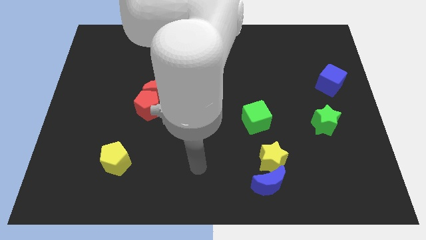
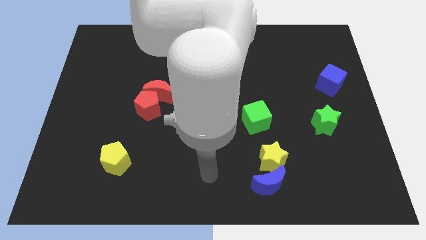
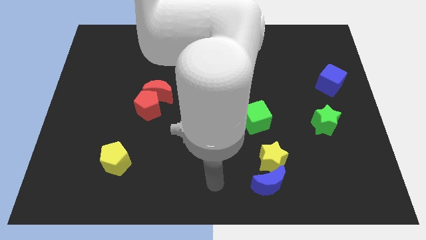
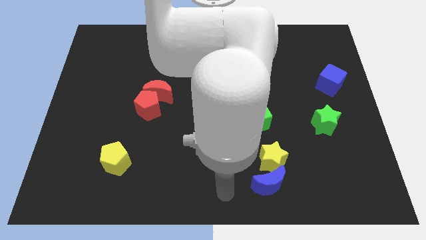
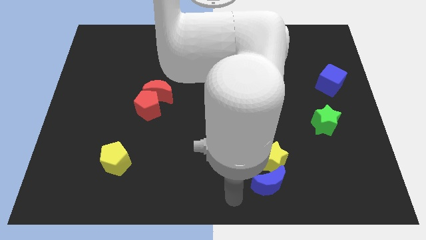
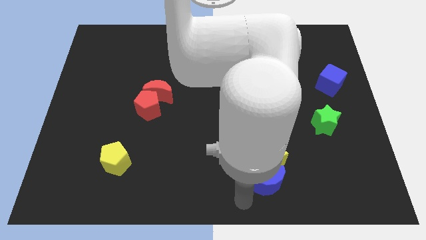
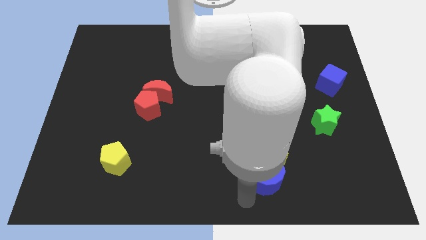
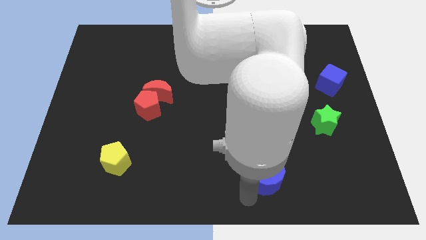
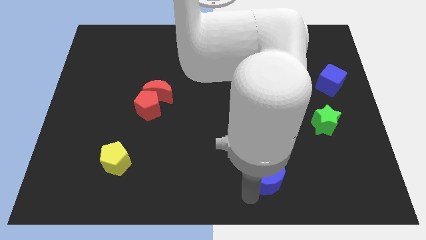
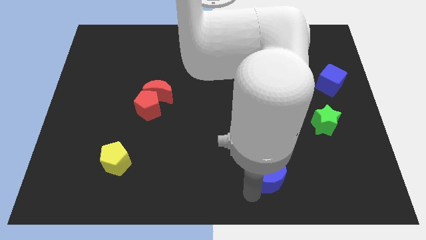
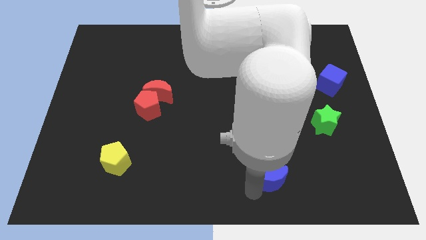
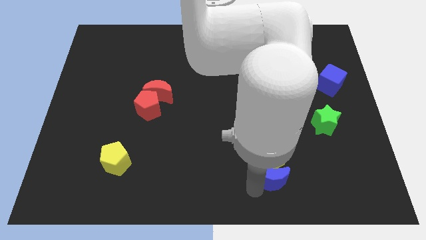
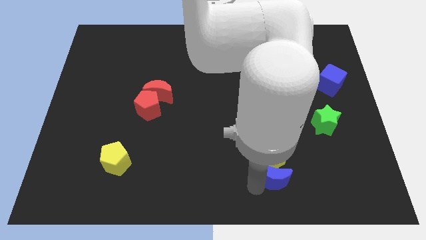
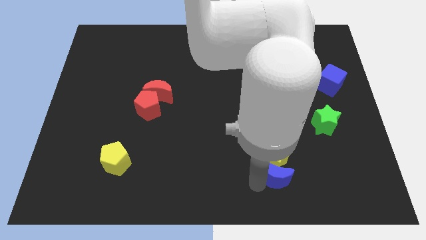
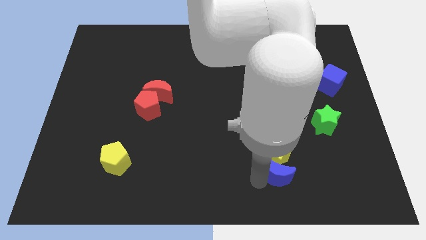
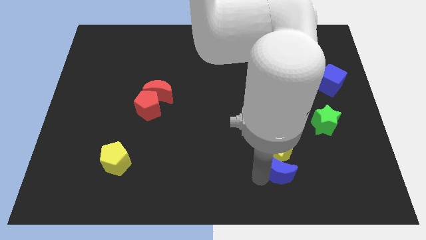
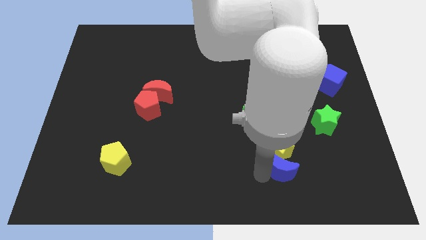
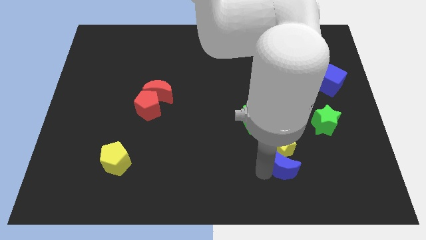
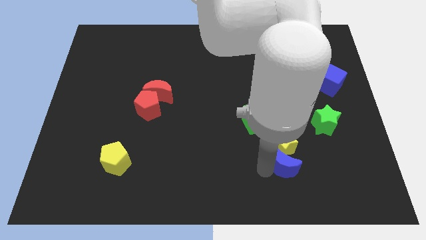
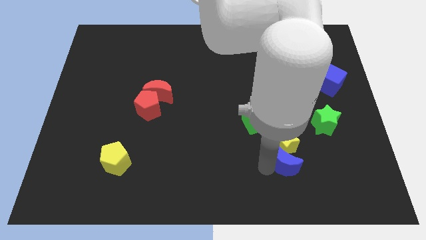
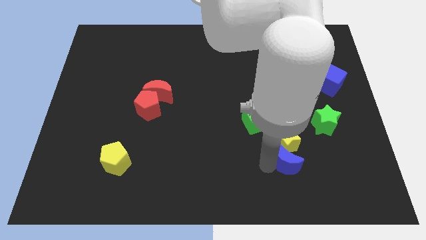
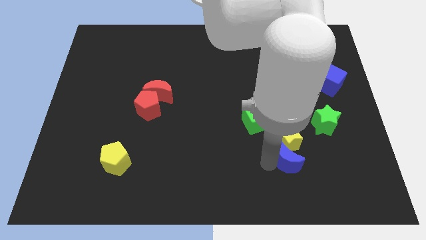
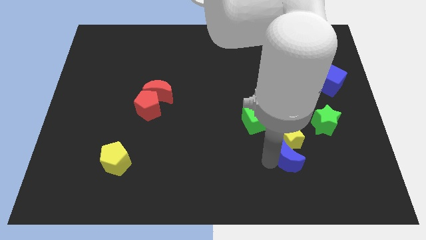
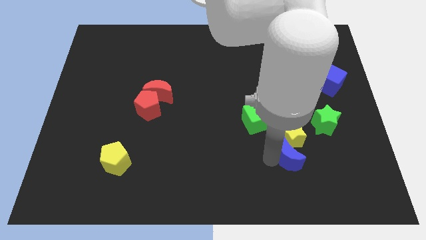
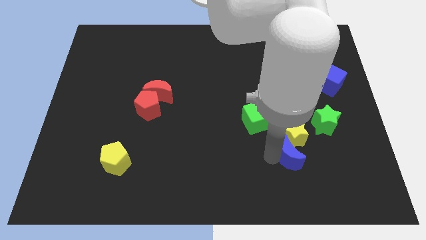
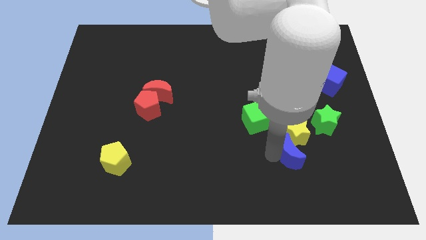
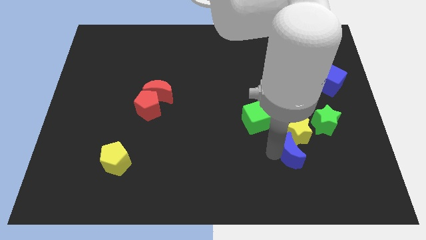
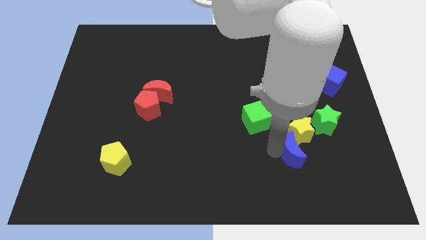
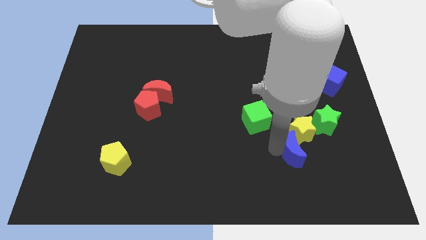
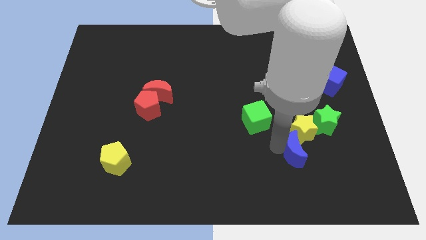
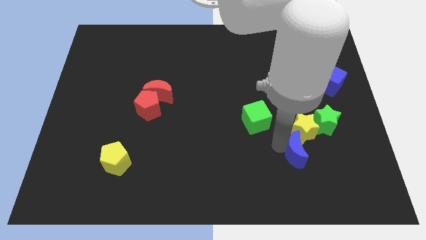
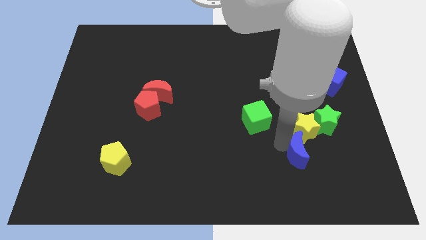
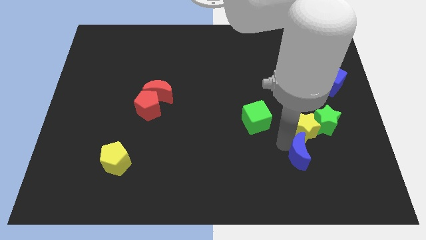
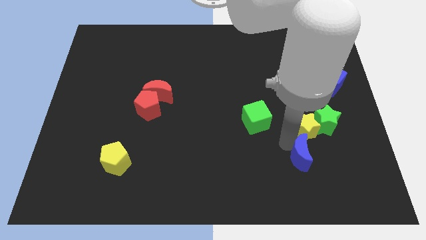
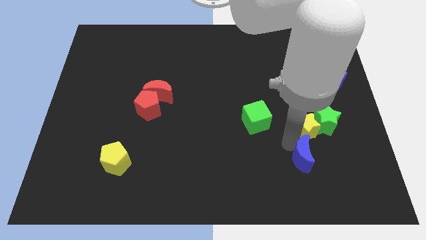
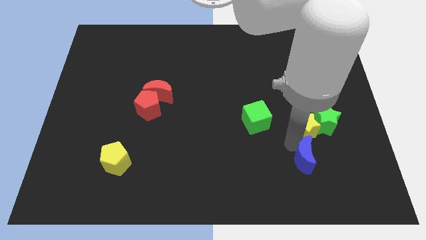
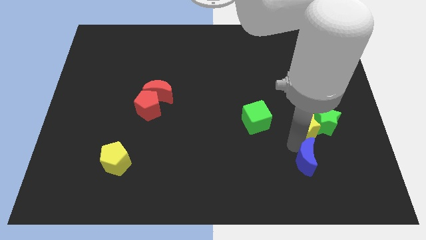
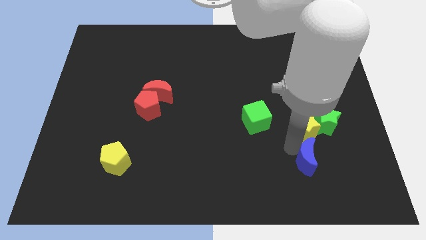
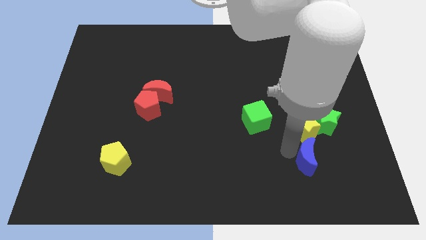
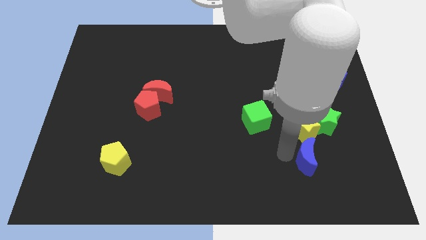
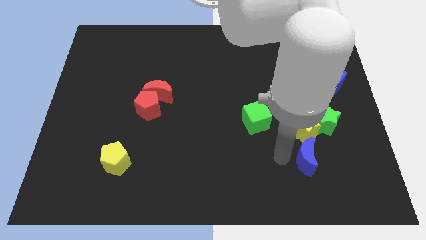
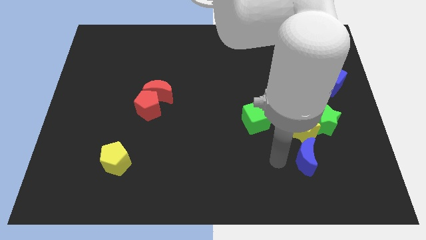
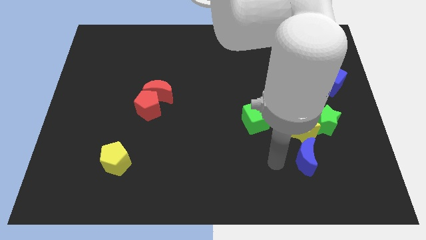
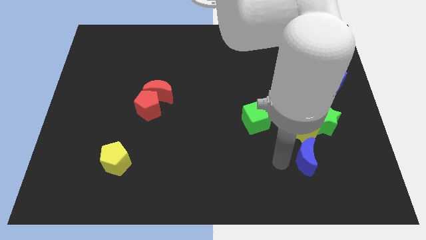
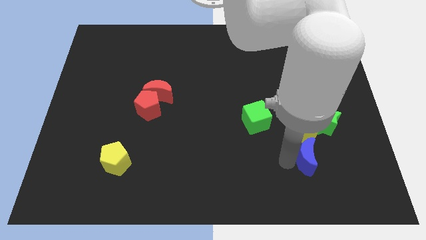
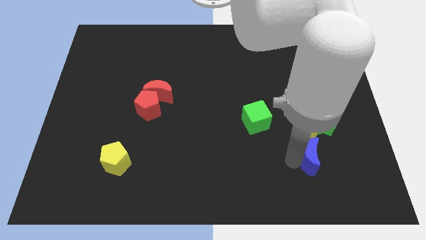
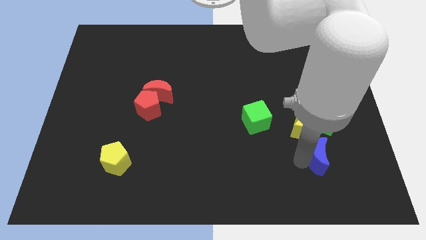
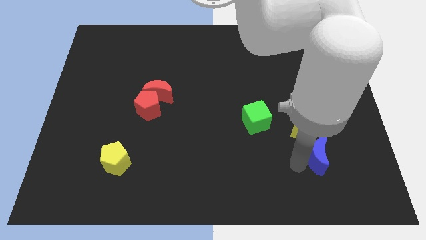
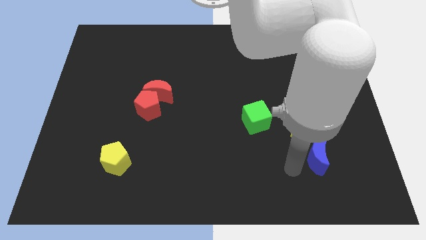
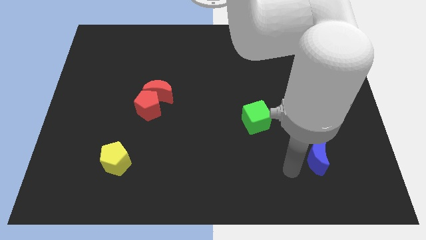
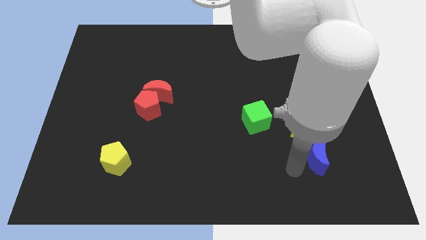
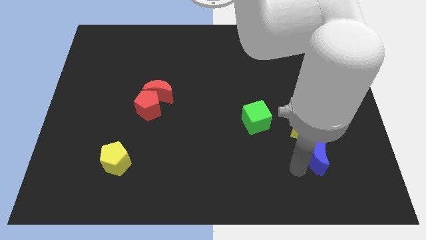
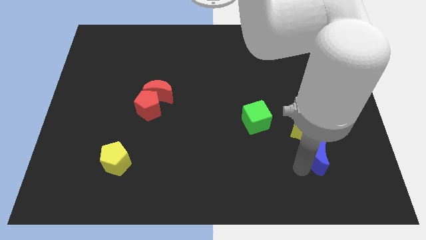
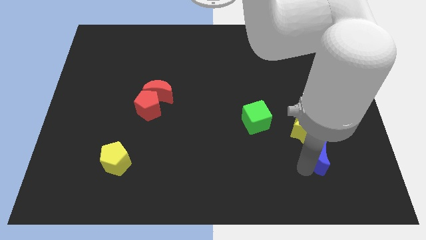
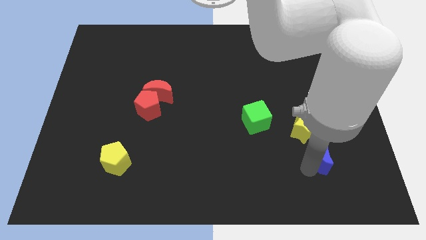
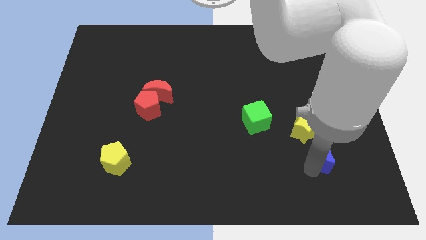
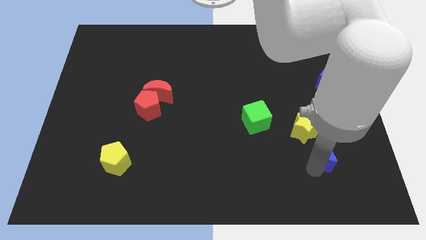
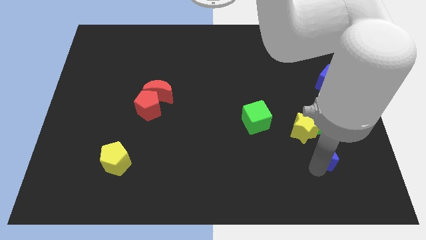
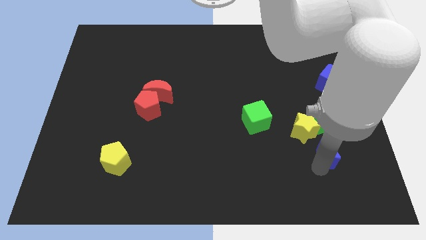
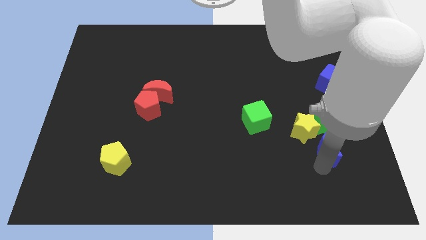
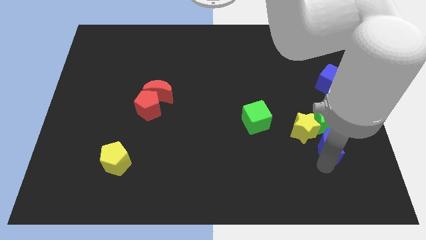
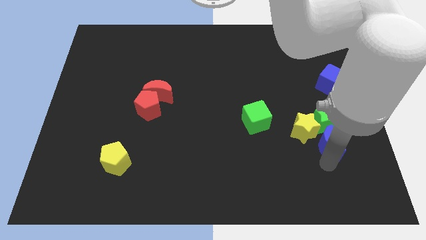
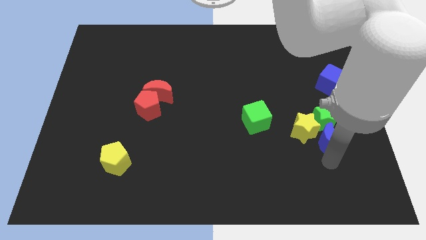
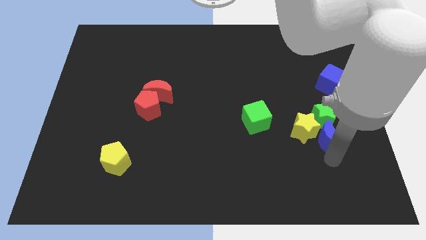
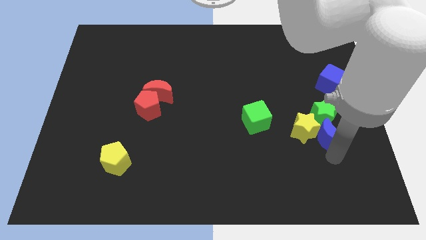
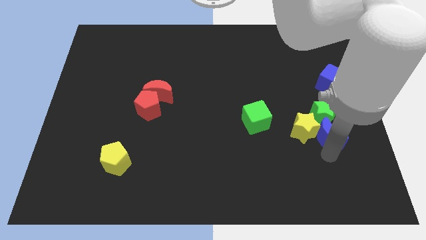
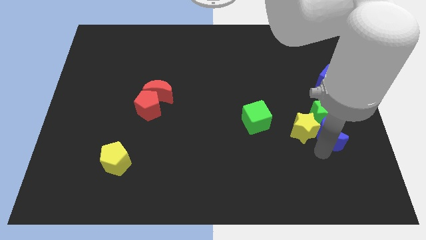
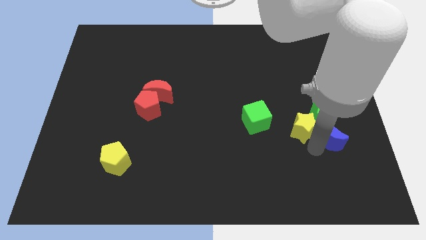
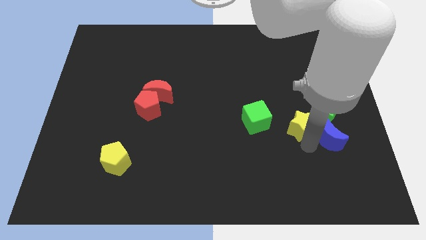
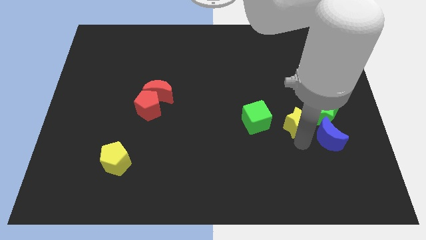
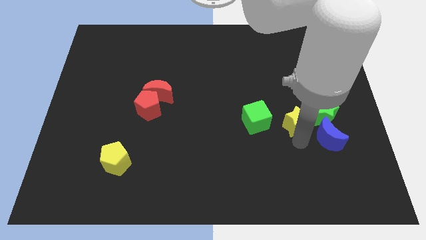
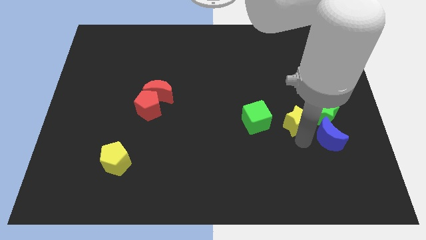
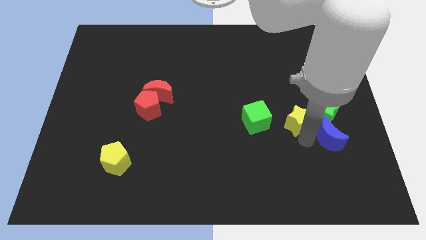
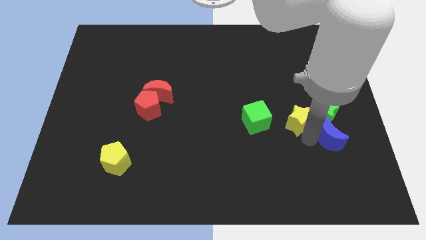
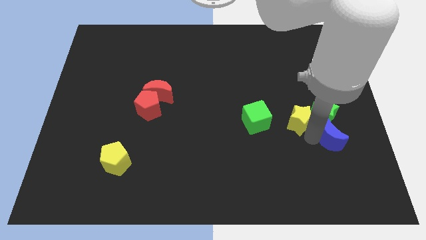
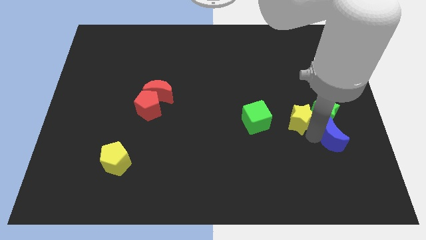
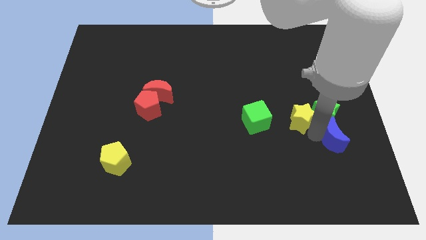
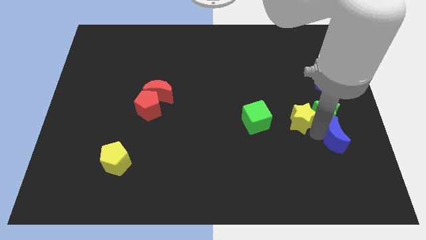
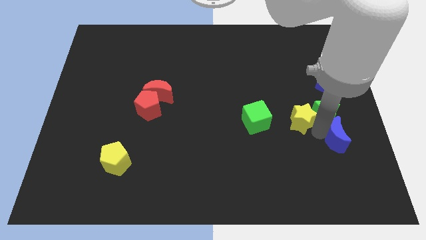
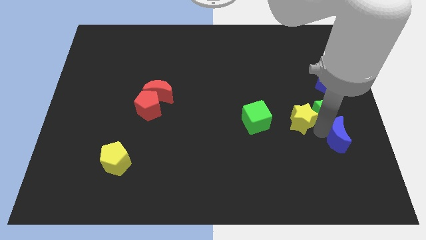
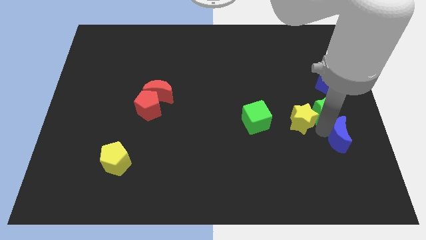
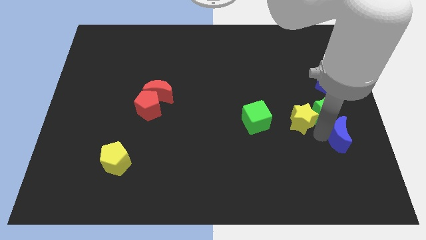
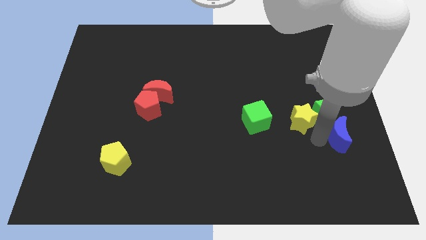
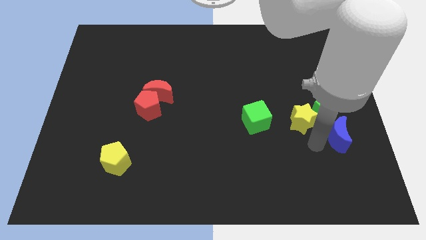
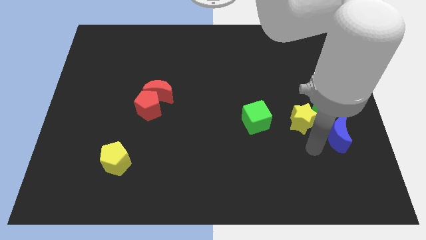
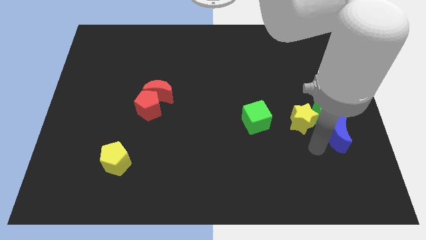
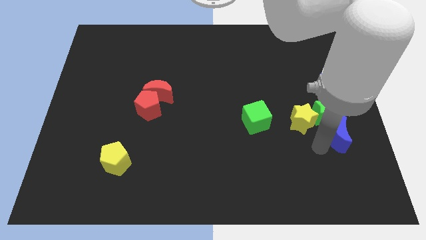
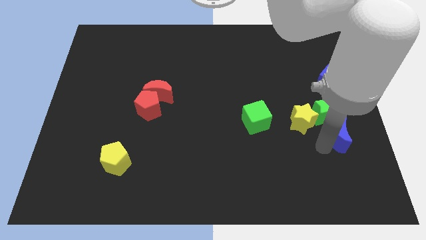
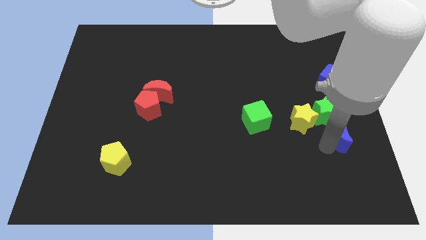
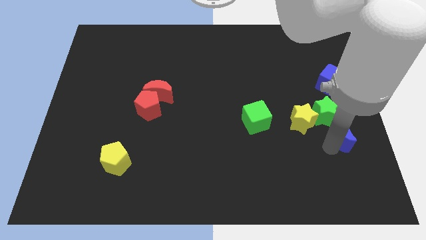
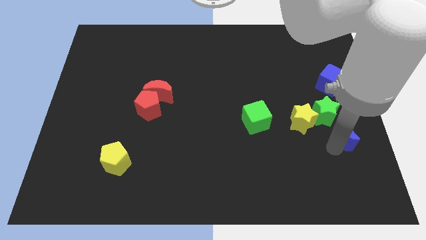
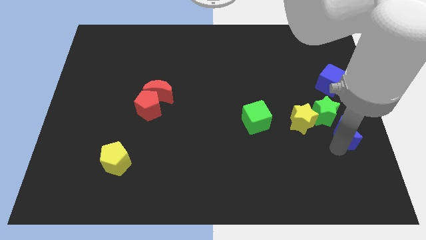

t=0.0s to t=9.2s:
slide the blue moon to the center right
